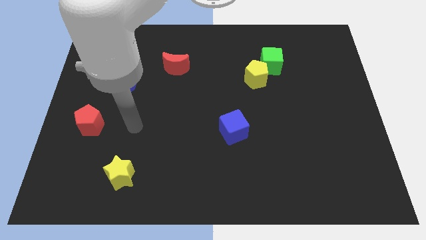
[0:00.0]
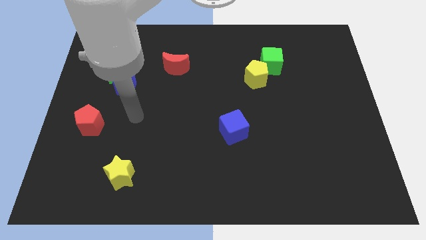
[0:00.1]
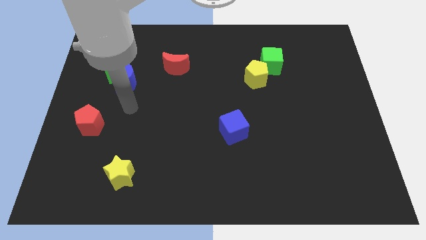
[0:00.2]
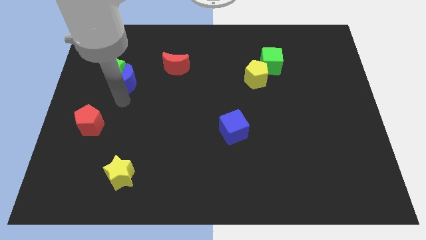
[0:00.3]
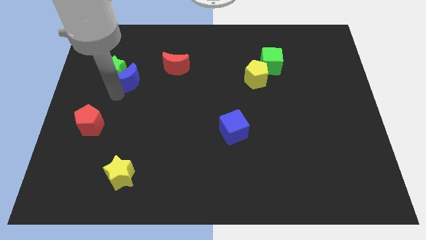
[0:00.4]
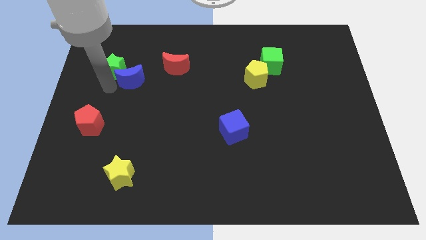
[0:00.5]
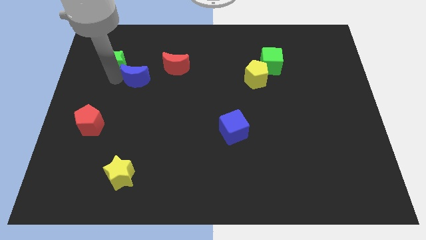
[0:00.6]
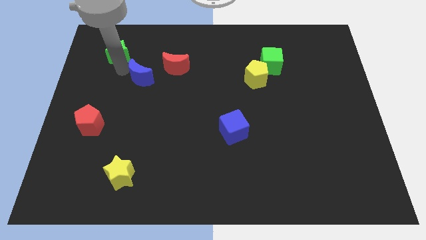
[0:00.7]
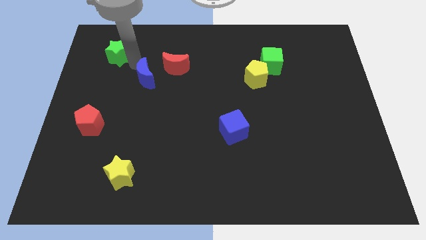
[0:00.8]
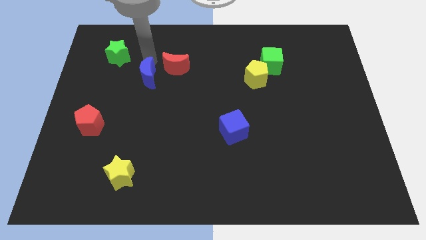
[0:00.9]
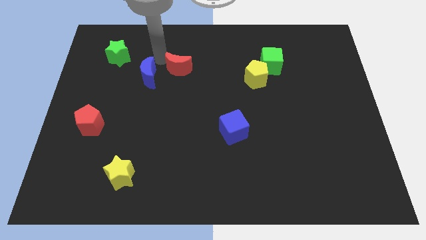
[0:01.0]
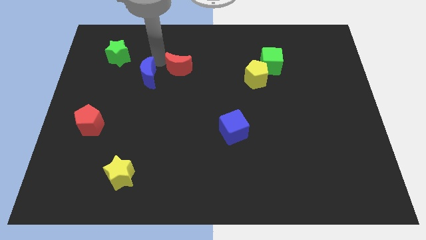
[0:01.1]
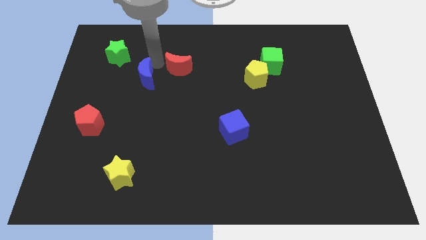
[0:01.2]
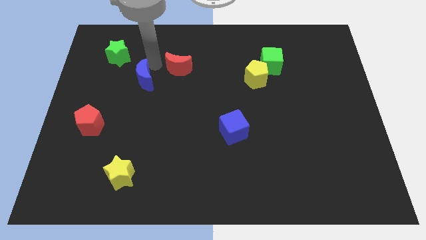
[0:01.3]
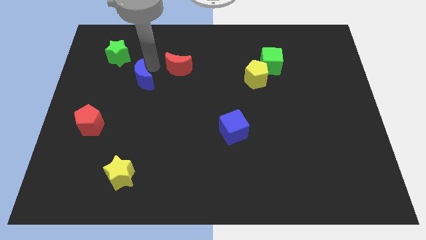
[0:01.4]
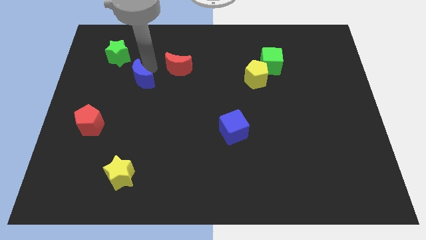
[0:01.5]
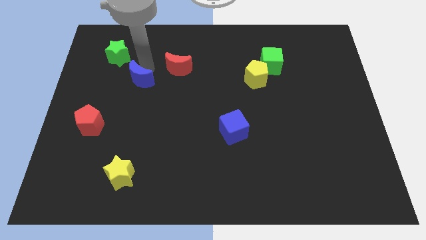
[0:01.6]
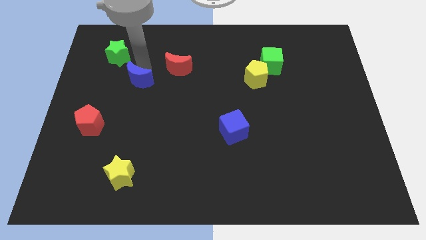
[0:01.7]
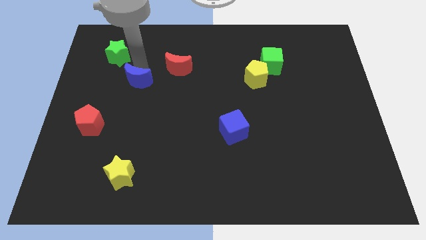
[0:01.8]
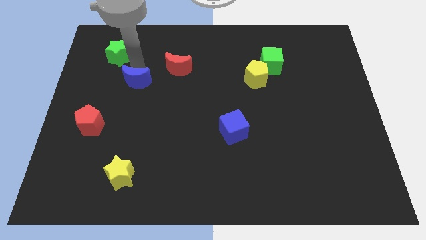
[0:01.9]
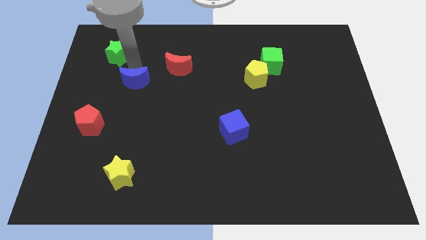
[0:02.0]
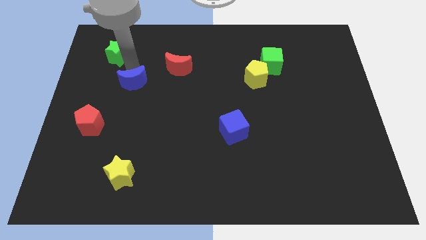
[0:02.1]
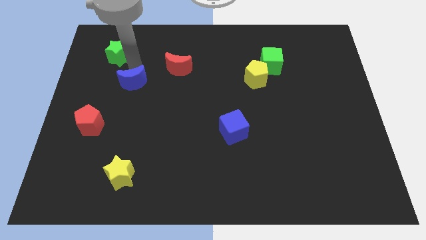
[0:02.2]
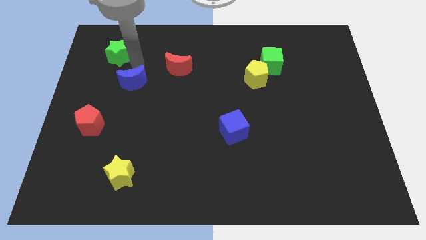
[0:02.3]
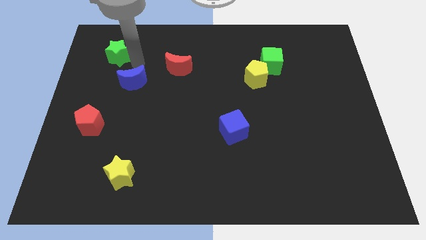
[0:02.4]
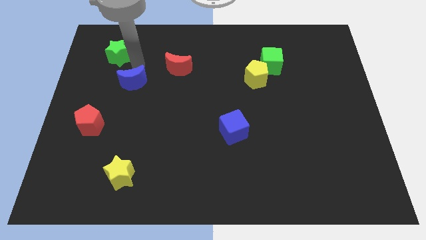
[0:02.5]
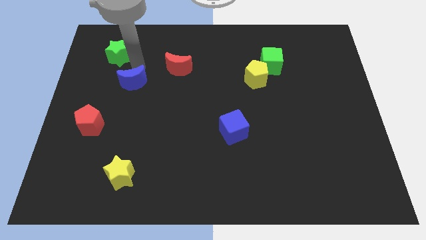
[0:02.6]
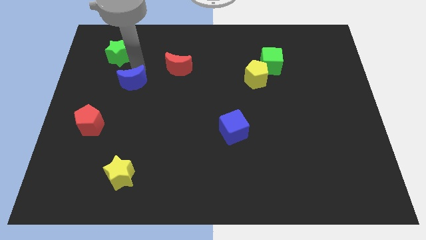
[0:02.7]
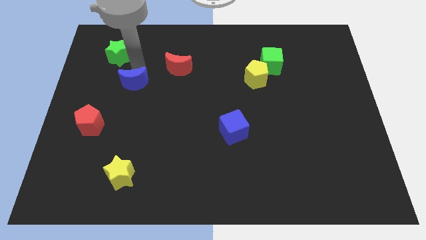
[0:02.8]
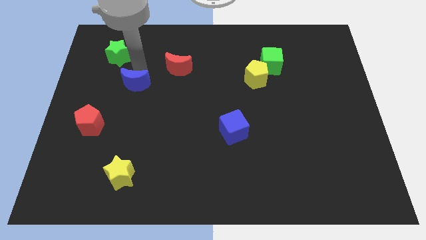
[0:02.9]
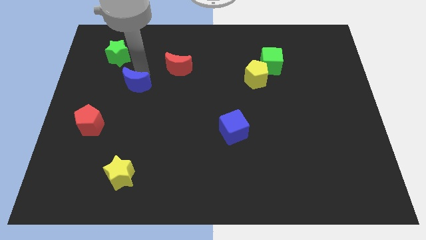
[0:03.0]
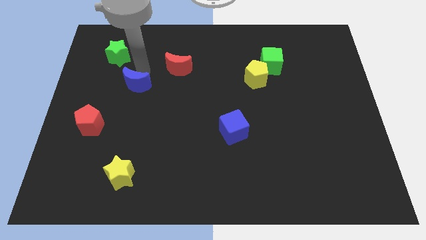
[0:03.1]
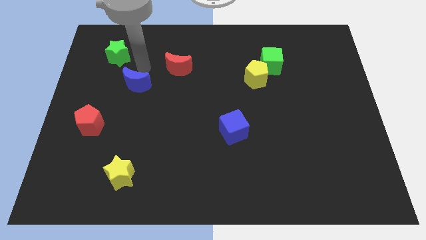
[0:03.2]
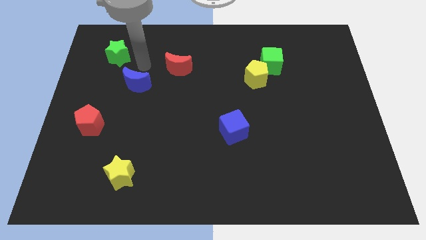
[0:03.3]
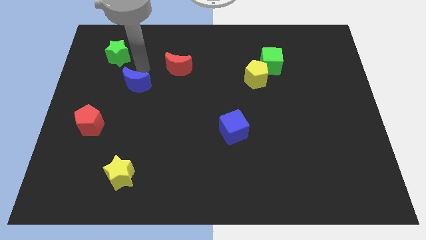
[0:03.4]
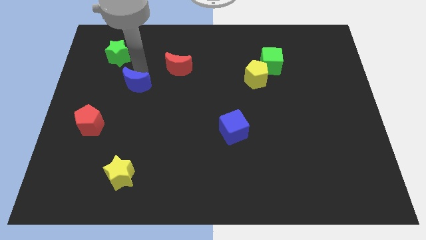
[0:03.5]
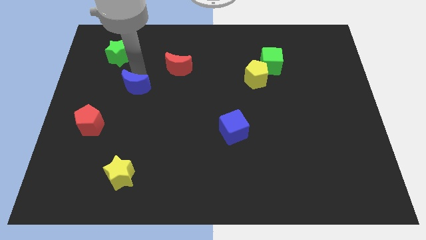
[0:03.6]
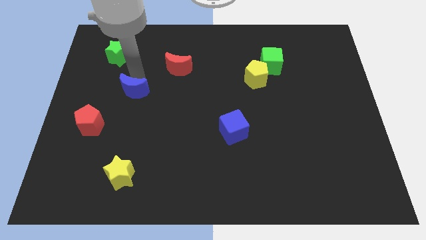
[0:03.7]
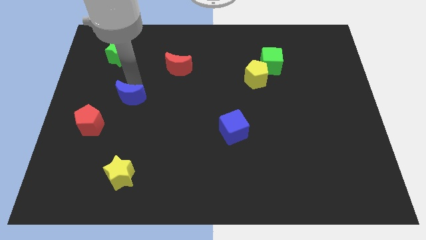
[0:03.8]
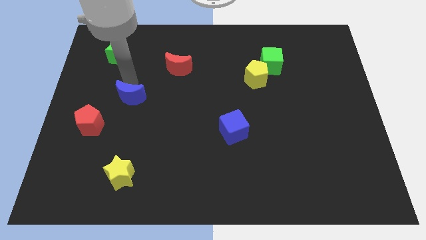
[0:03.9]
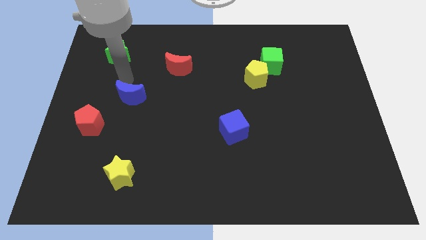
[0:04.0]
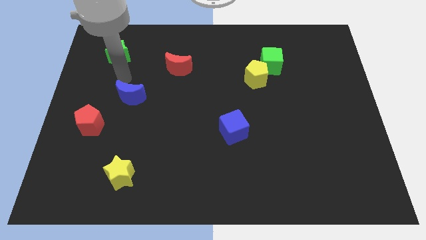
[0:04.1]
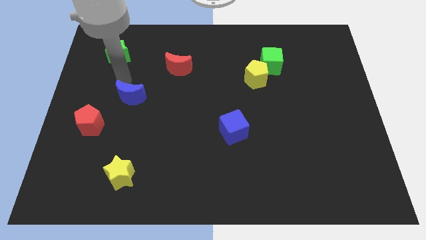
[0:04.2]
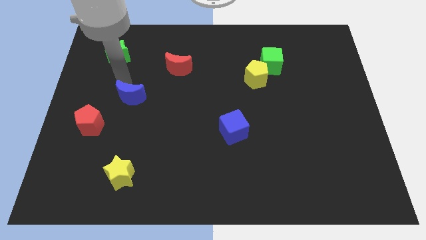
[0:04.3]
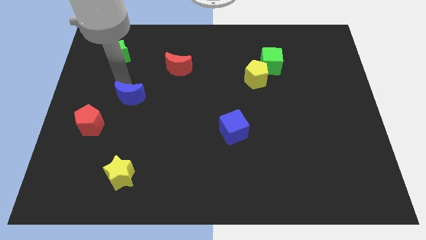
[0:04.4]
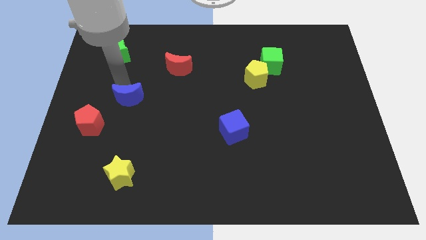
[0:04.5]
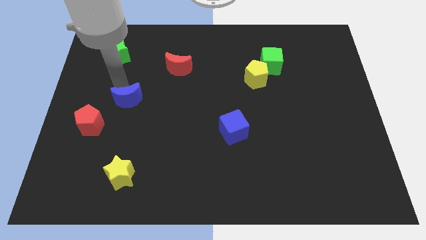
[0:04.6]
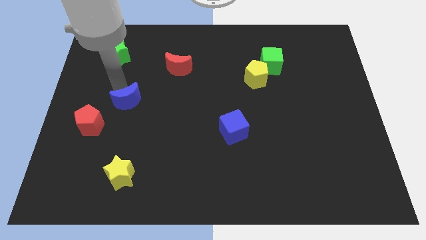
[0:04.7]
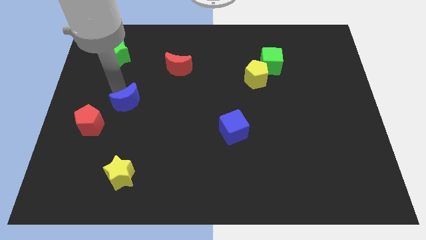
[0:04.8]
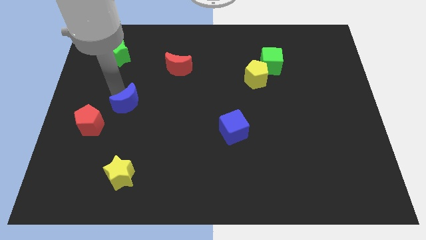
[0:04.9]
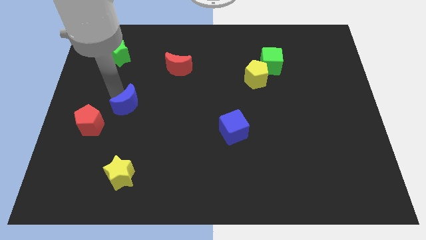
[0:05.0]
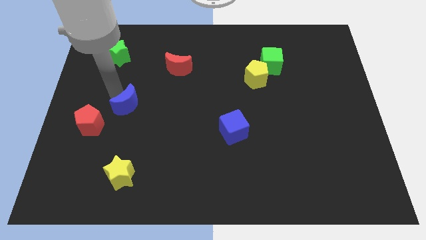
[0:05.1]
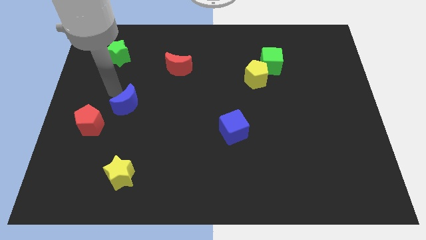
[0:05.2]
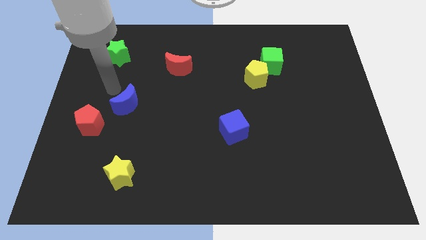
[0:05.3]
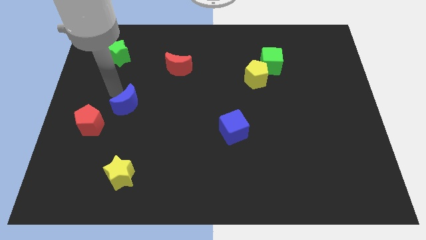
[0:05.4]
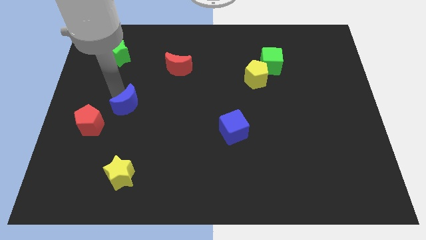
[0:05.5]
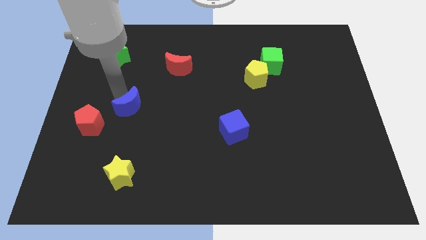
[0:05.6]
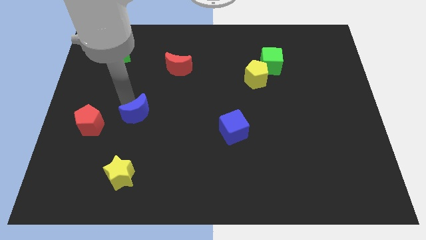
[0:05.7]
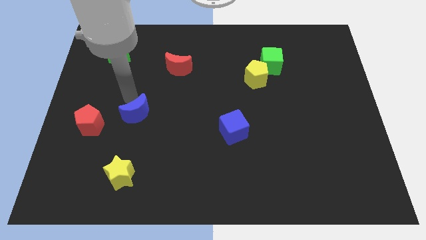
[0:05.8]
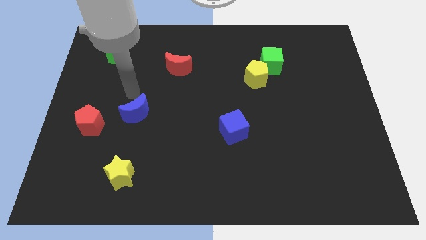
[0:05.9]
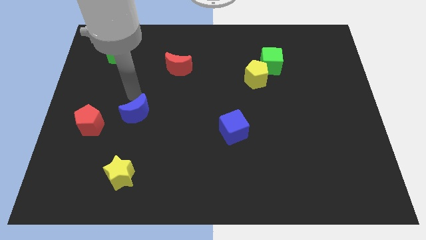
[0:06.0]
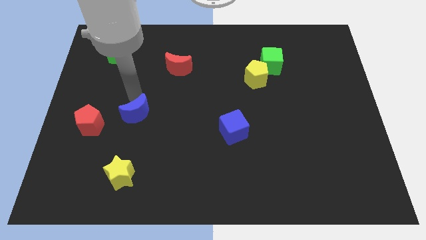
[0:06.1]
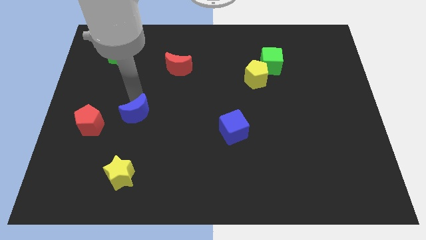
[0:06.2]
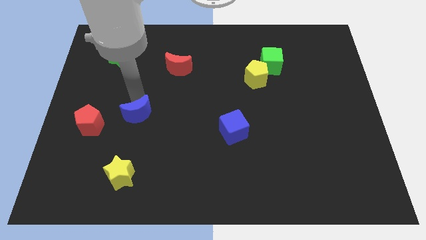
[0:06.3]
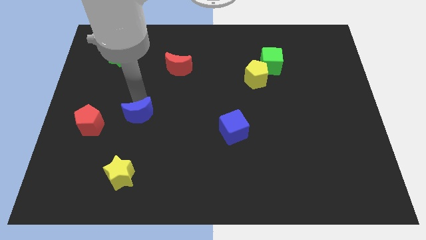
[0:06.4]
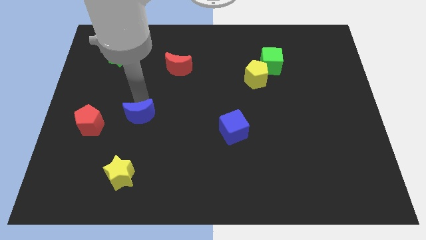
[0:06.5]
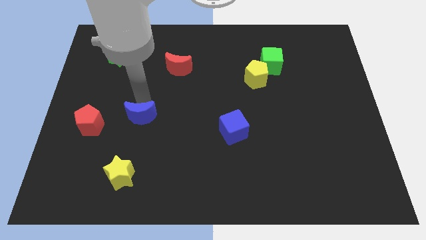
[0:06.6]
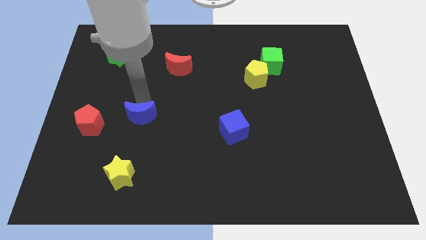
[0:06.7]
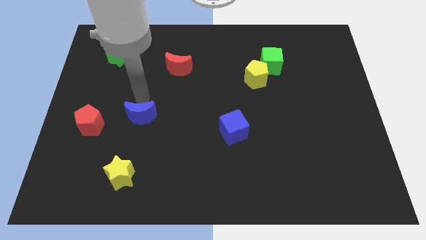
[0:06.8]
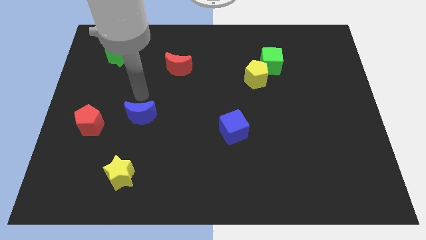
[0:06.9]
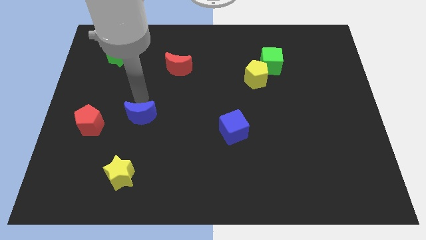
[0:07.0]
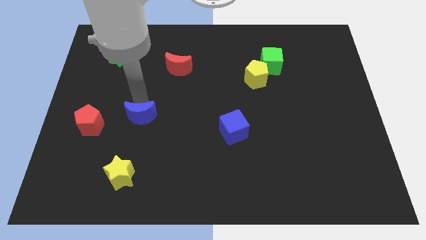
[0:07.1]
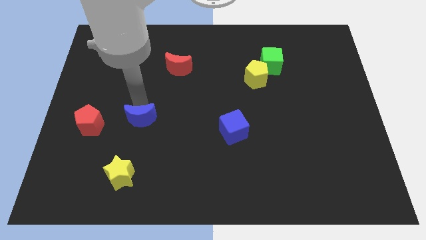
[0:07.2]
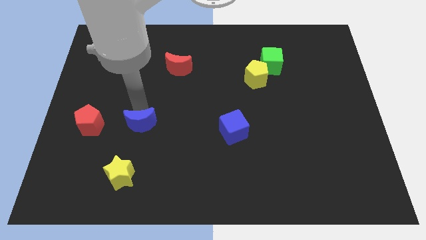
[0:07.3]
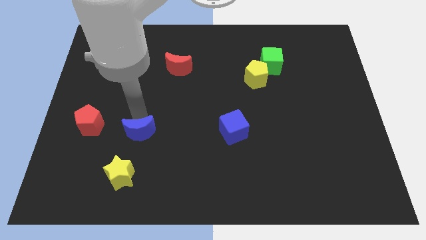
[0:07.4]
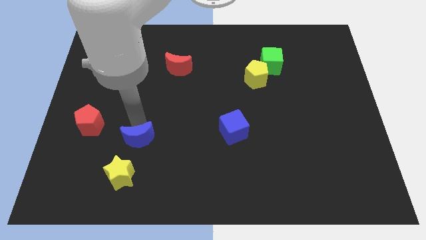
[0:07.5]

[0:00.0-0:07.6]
move the blue moon diagonally up and to the right of the yellow star

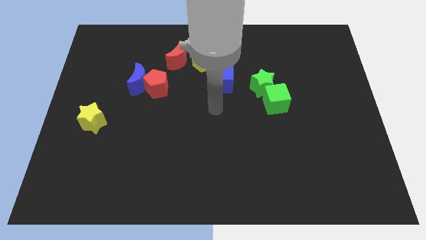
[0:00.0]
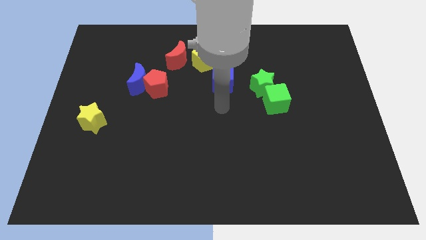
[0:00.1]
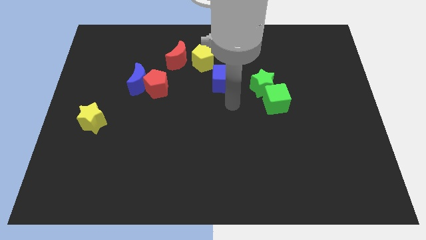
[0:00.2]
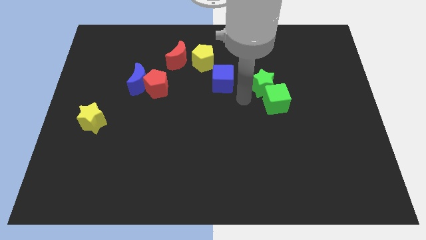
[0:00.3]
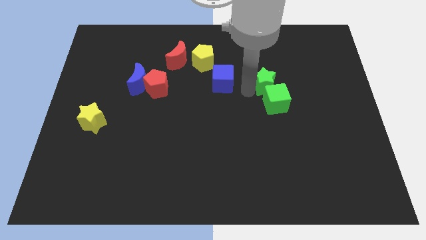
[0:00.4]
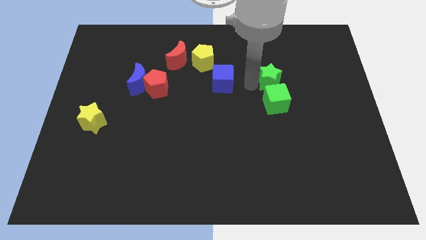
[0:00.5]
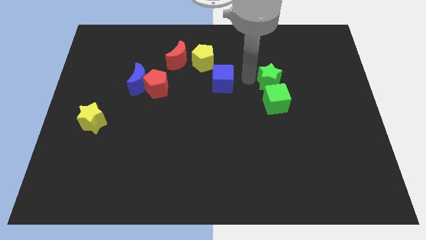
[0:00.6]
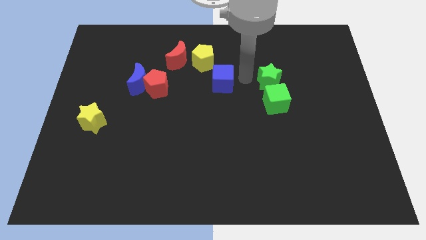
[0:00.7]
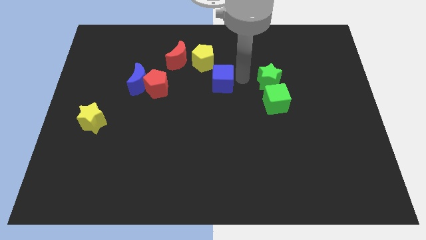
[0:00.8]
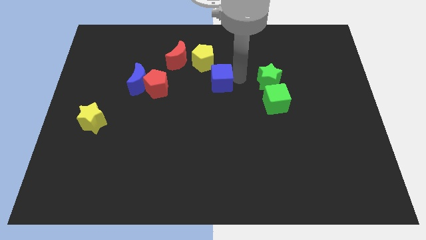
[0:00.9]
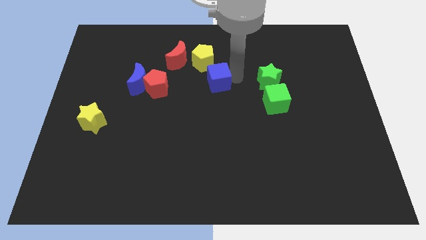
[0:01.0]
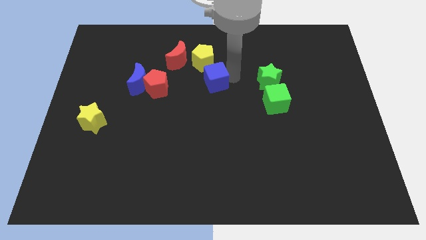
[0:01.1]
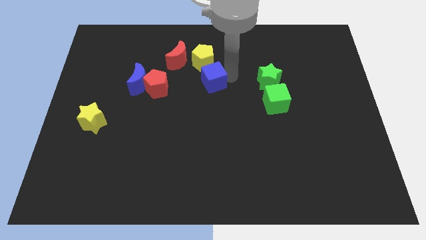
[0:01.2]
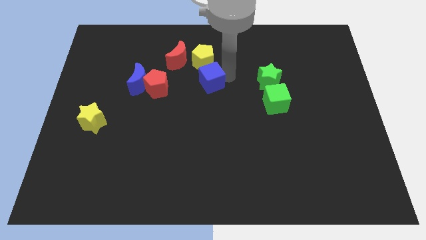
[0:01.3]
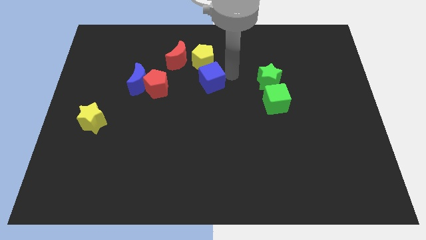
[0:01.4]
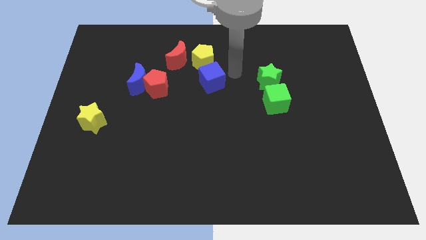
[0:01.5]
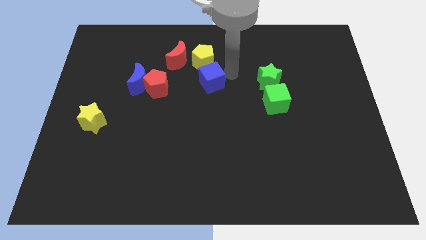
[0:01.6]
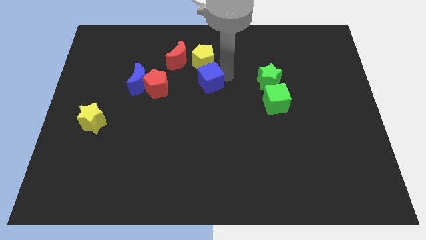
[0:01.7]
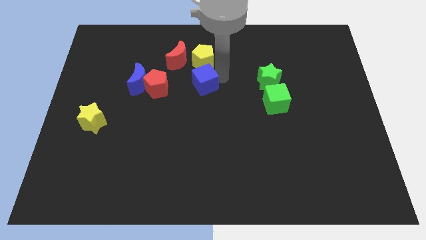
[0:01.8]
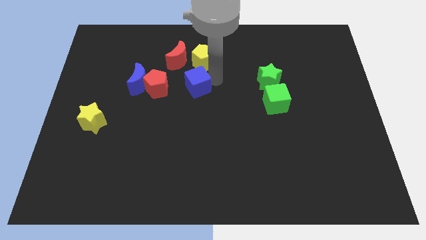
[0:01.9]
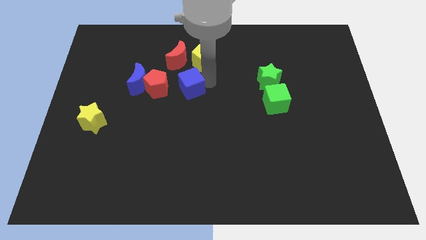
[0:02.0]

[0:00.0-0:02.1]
slide the blue cube to the bottom of the red moon
